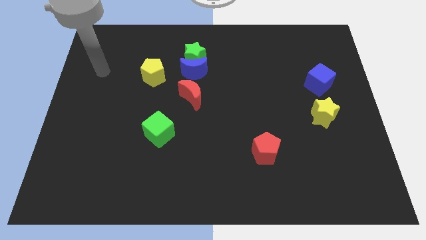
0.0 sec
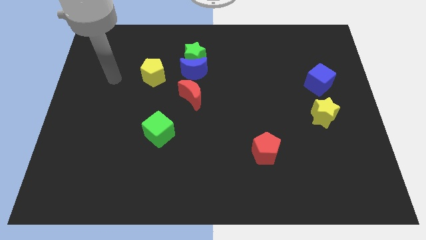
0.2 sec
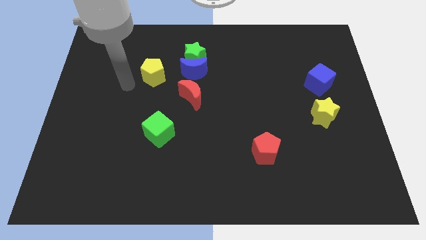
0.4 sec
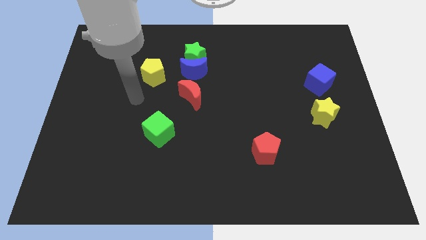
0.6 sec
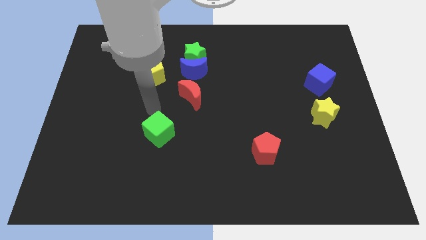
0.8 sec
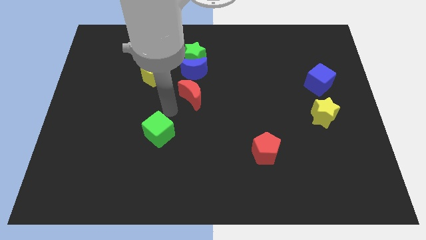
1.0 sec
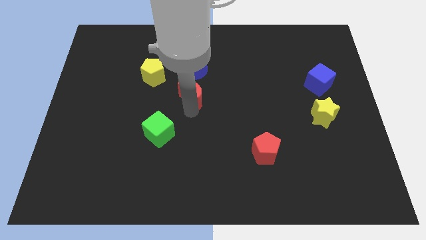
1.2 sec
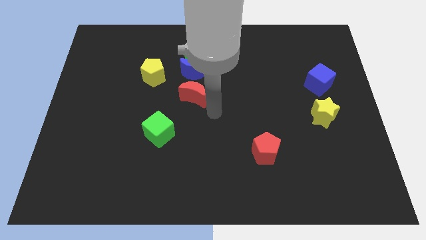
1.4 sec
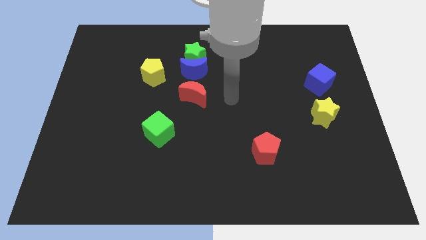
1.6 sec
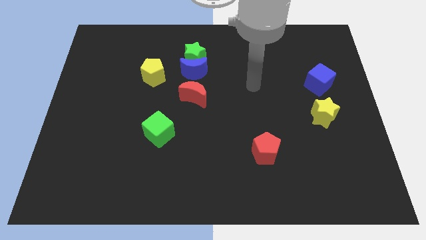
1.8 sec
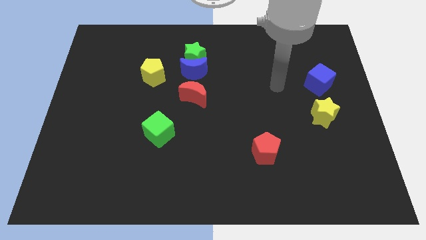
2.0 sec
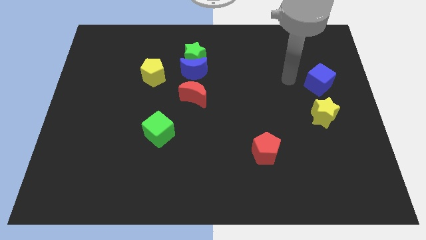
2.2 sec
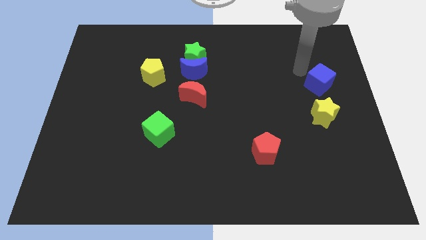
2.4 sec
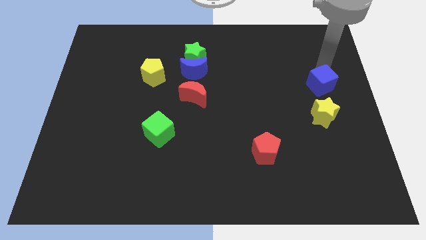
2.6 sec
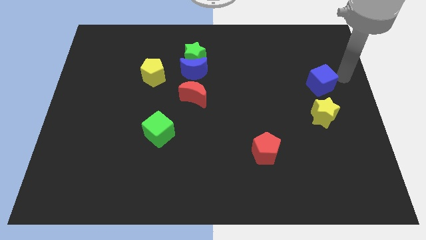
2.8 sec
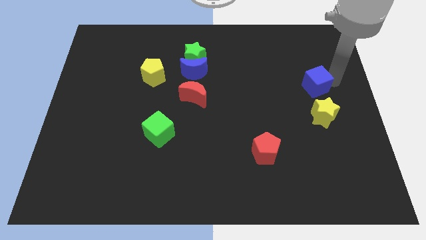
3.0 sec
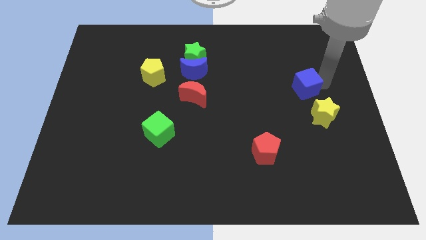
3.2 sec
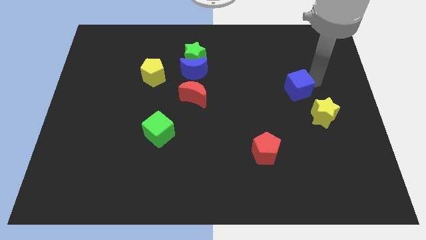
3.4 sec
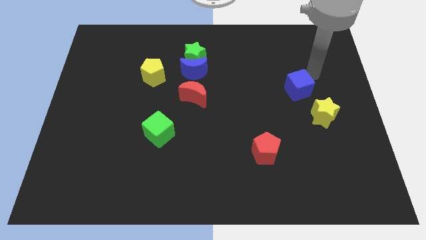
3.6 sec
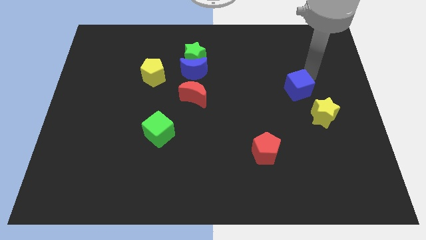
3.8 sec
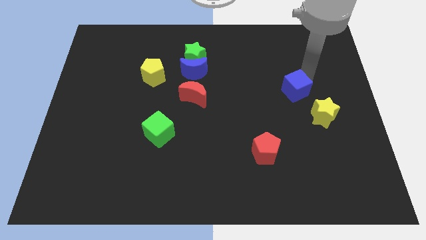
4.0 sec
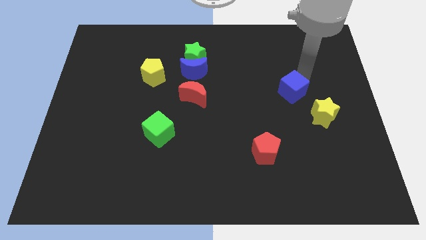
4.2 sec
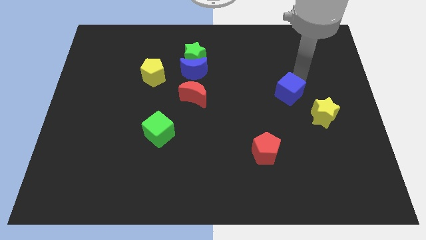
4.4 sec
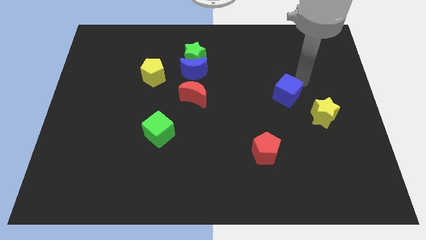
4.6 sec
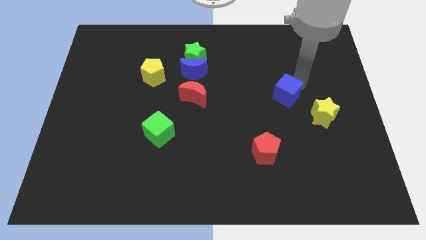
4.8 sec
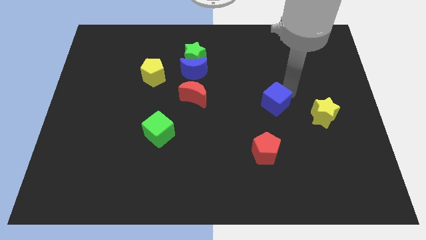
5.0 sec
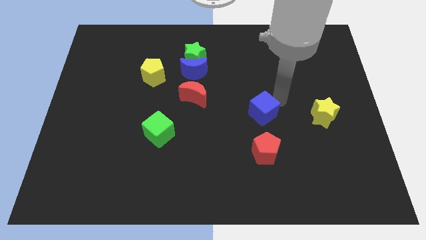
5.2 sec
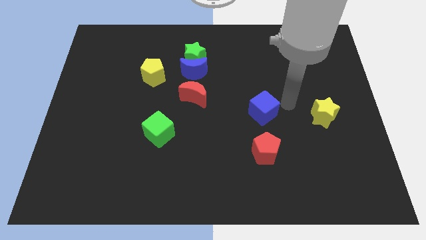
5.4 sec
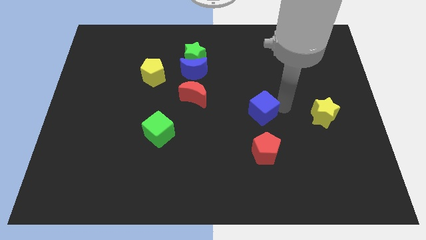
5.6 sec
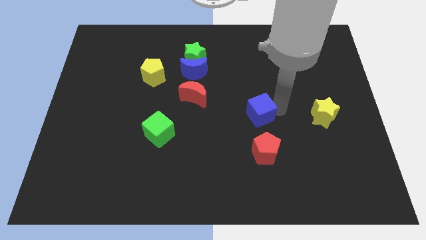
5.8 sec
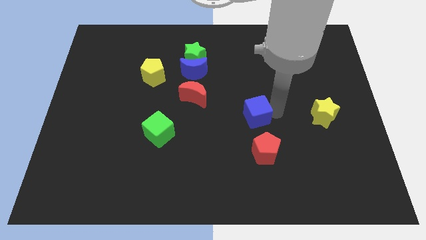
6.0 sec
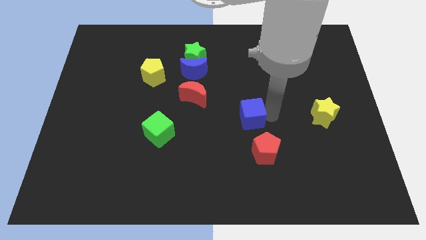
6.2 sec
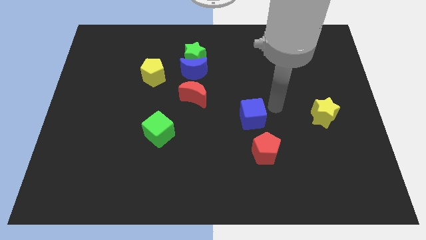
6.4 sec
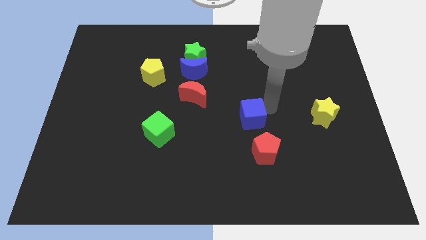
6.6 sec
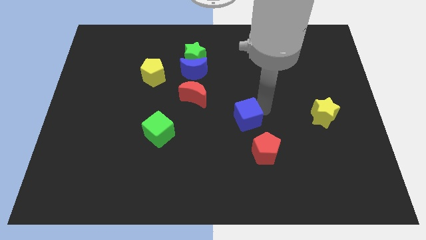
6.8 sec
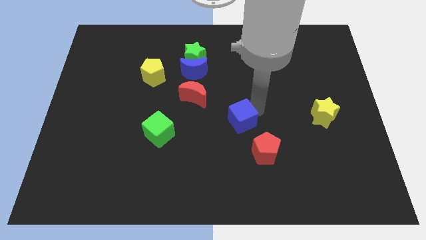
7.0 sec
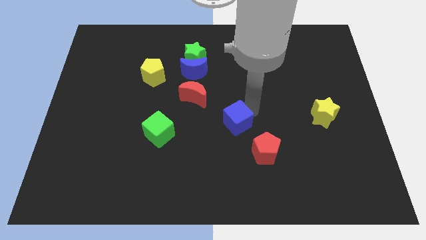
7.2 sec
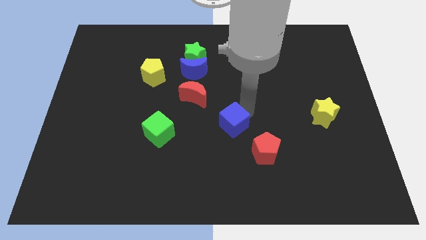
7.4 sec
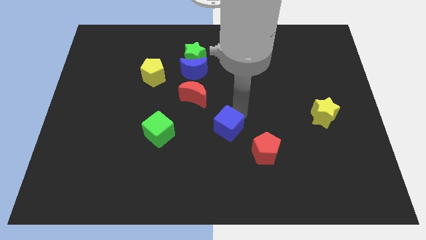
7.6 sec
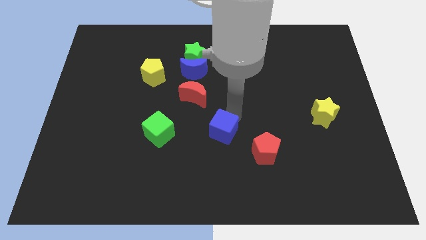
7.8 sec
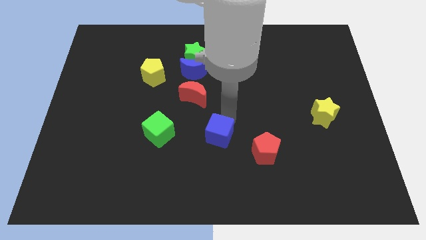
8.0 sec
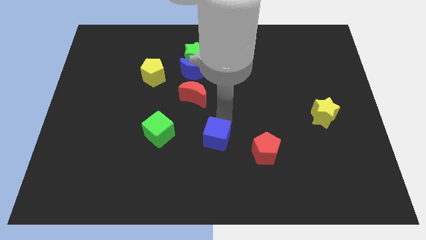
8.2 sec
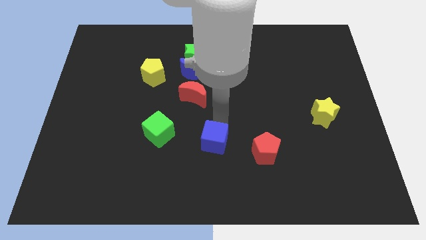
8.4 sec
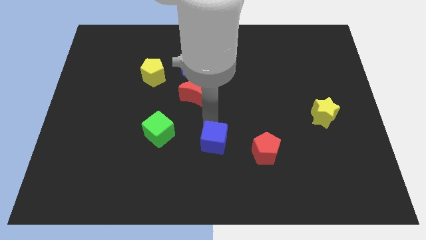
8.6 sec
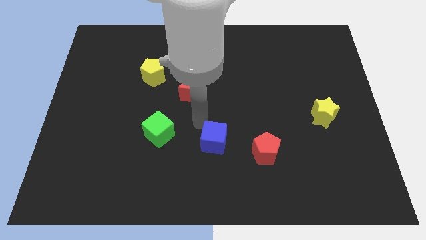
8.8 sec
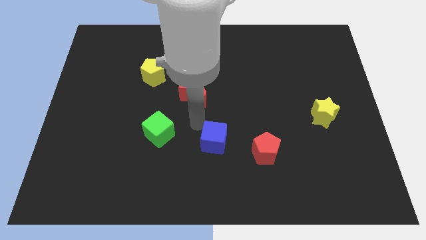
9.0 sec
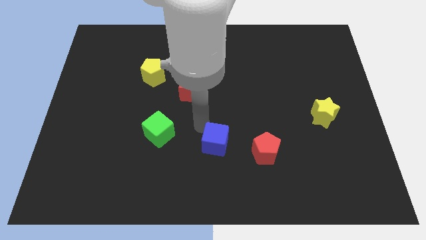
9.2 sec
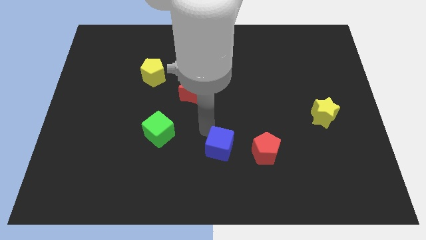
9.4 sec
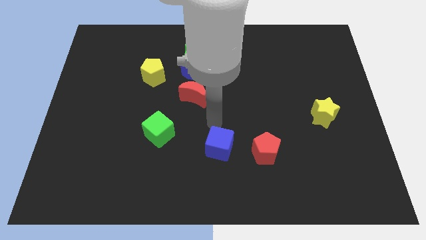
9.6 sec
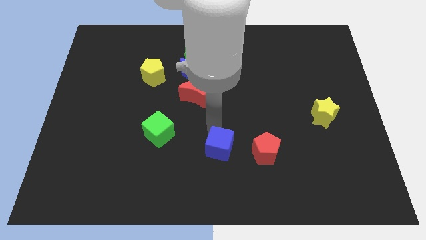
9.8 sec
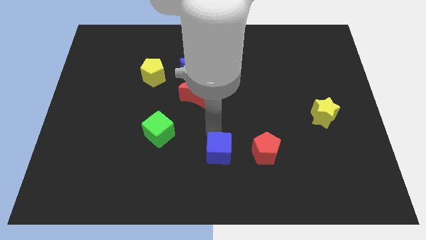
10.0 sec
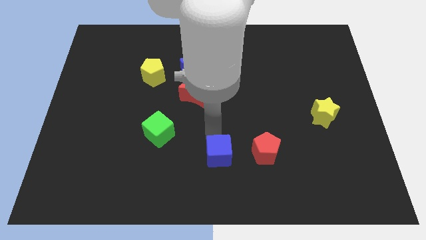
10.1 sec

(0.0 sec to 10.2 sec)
slide the blue cube to the bottom

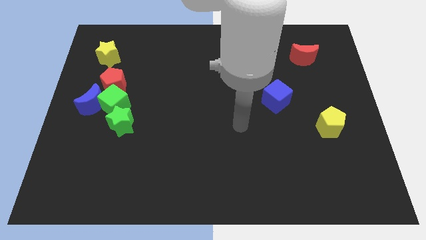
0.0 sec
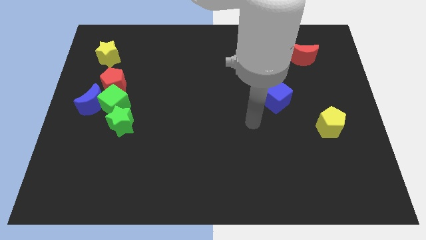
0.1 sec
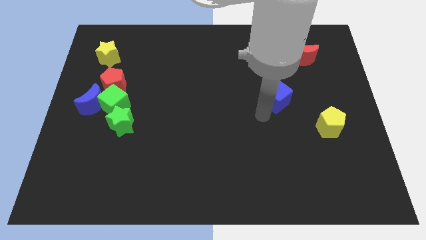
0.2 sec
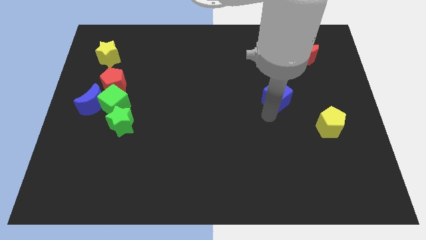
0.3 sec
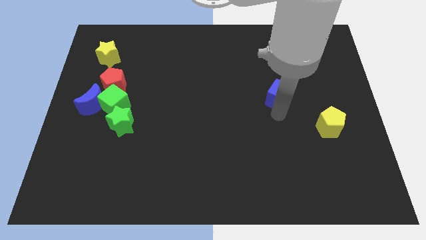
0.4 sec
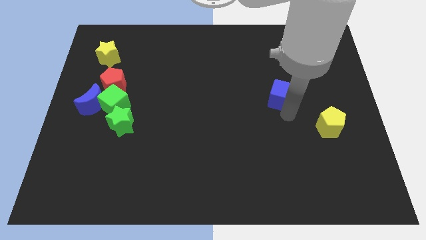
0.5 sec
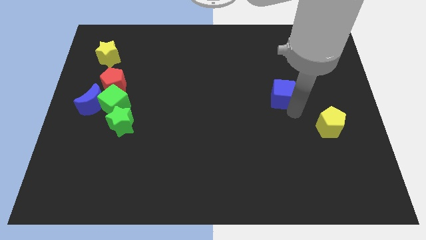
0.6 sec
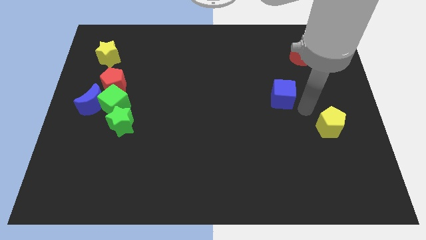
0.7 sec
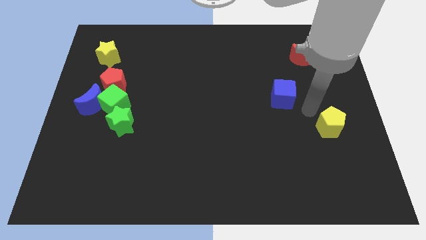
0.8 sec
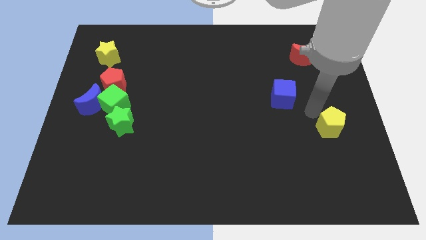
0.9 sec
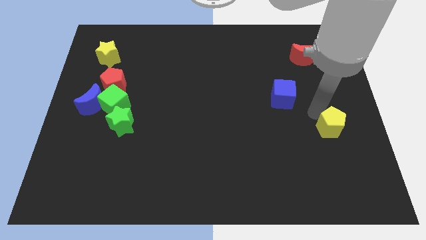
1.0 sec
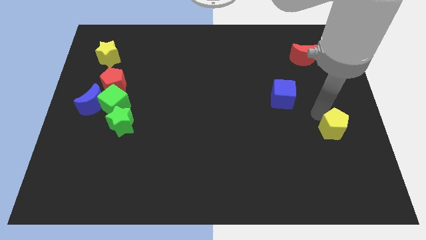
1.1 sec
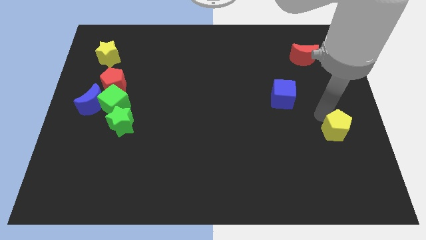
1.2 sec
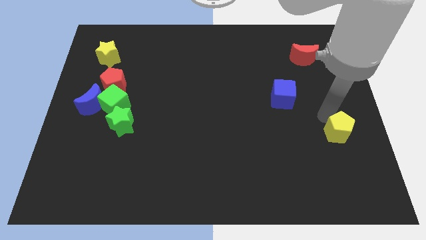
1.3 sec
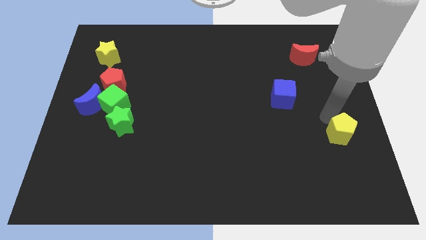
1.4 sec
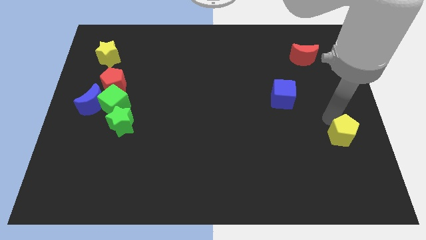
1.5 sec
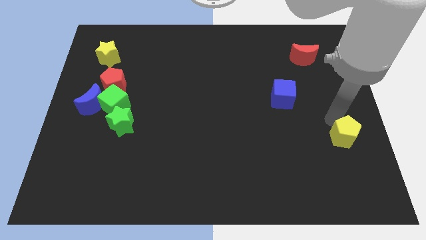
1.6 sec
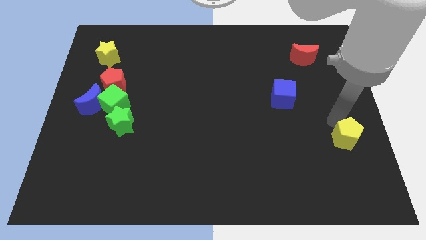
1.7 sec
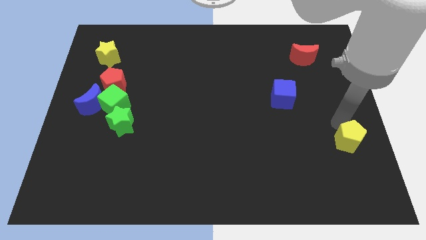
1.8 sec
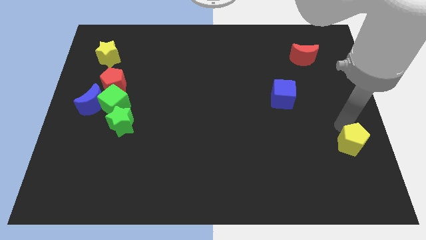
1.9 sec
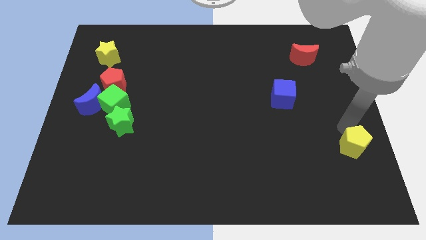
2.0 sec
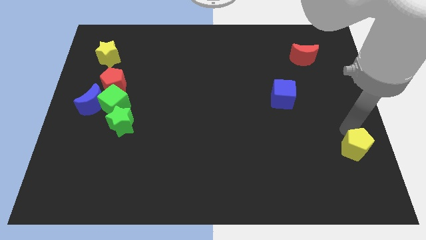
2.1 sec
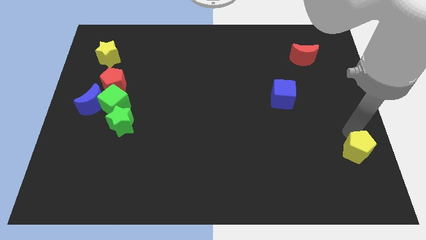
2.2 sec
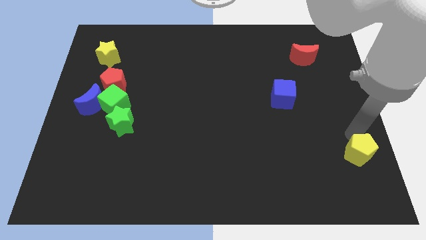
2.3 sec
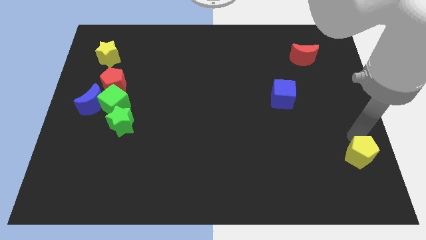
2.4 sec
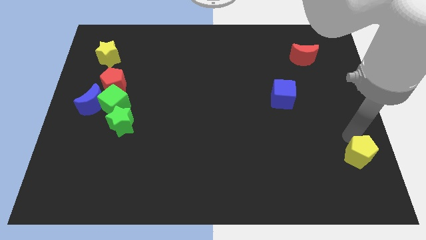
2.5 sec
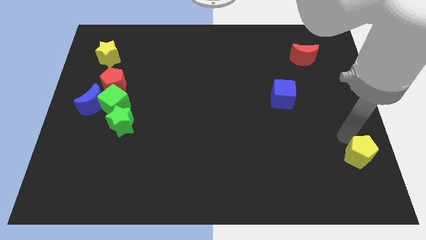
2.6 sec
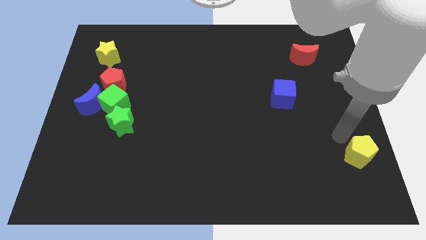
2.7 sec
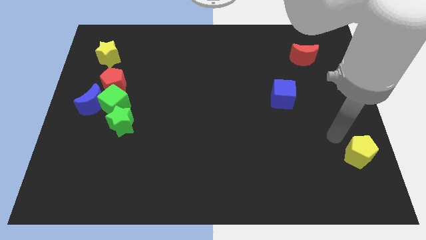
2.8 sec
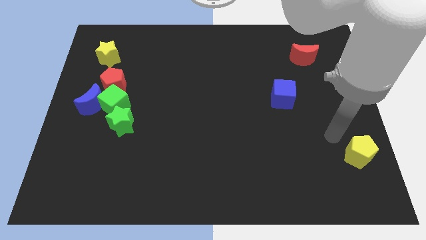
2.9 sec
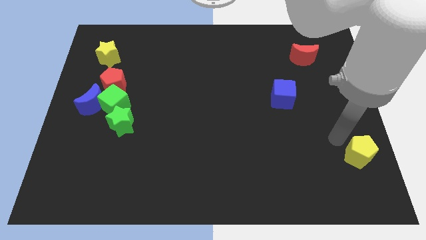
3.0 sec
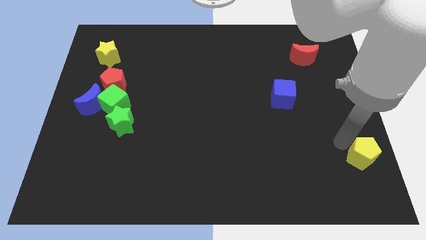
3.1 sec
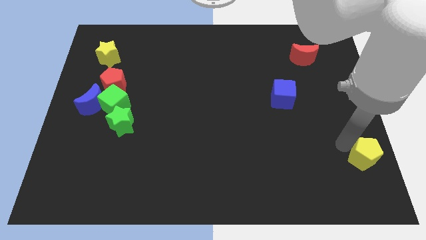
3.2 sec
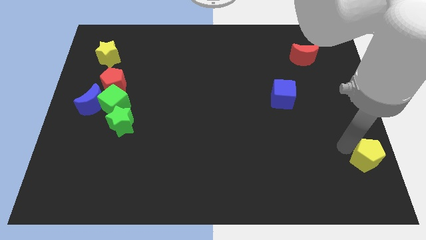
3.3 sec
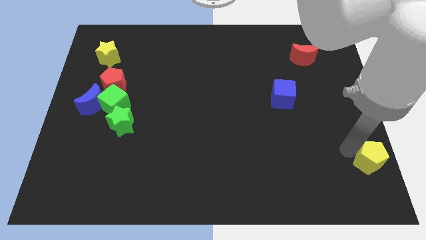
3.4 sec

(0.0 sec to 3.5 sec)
put the yellow pentagon to the bottom right of the board
